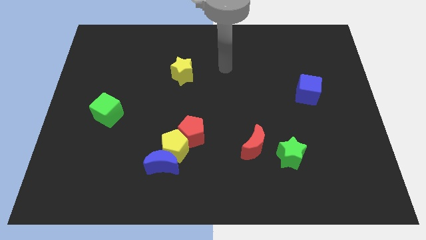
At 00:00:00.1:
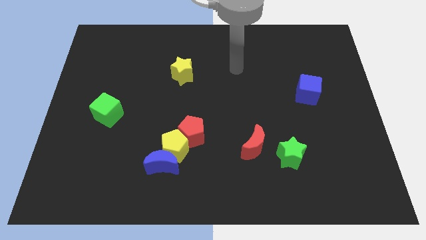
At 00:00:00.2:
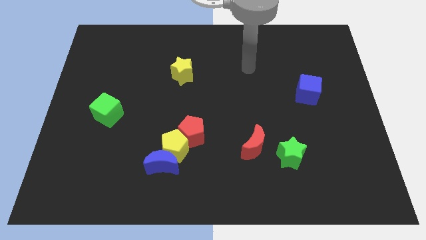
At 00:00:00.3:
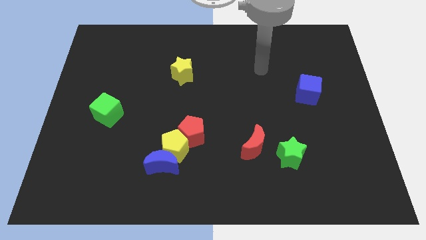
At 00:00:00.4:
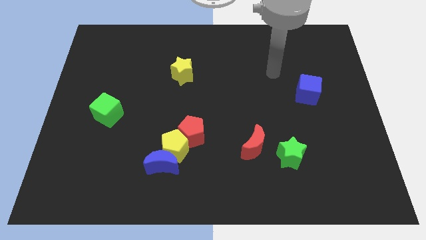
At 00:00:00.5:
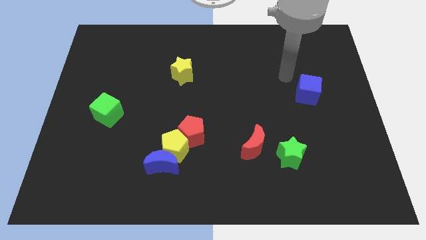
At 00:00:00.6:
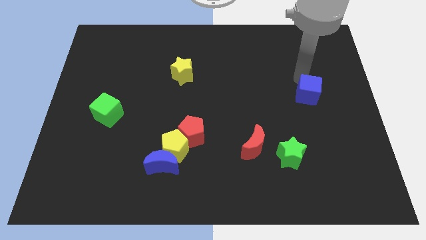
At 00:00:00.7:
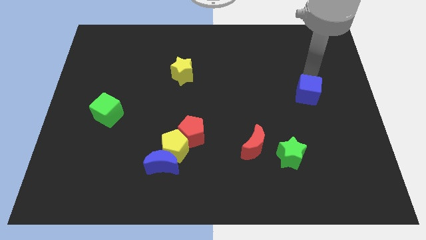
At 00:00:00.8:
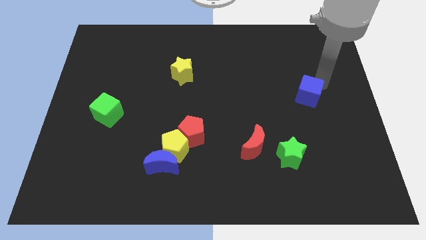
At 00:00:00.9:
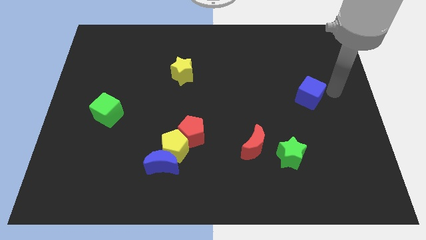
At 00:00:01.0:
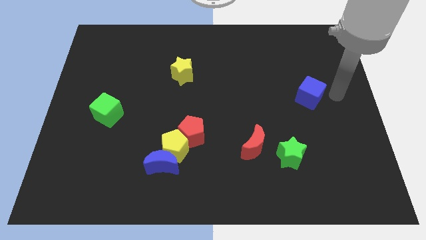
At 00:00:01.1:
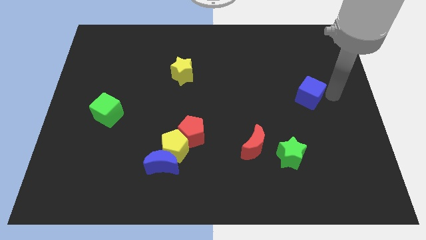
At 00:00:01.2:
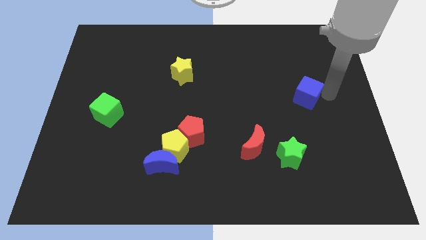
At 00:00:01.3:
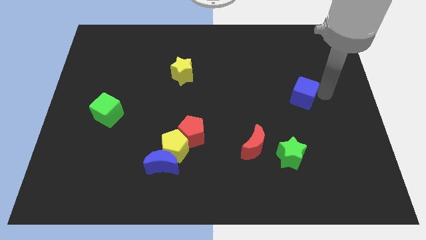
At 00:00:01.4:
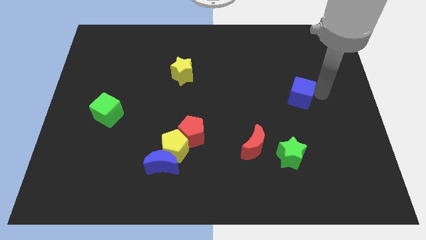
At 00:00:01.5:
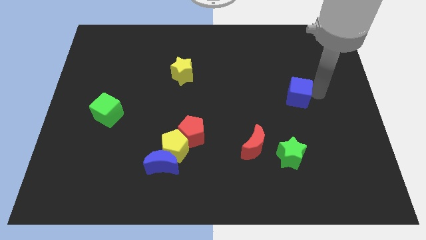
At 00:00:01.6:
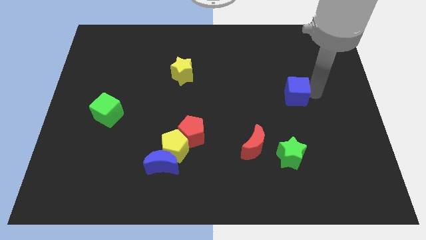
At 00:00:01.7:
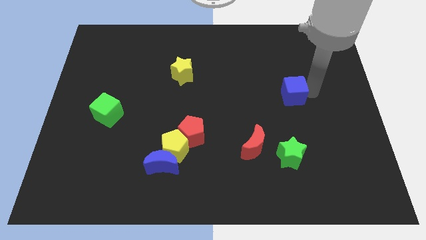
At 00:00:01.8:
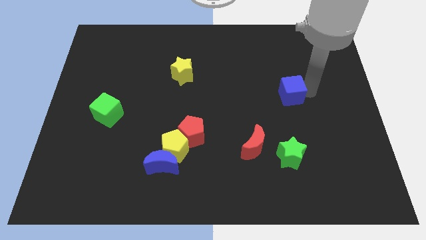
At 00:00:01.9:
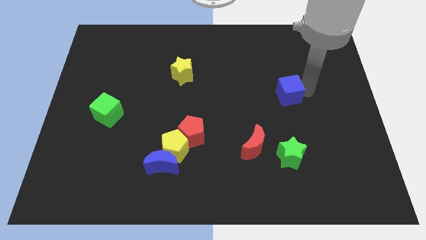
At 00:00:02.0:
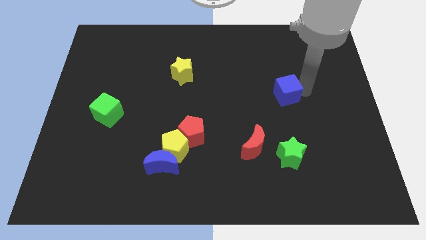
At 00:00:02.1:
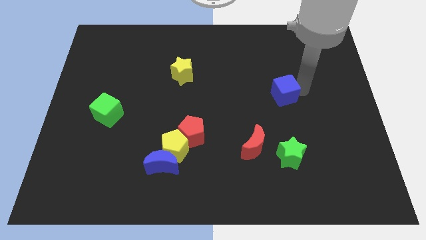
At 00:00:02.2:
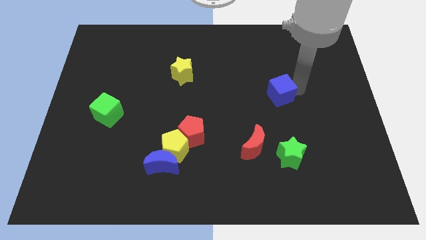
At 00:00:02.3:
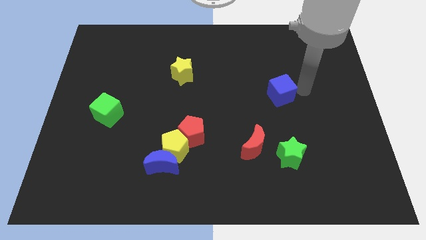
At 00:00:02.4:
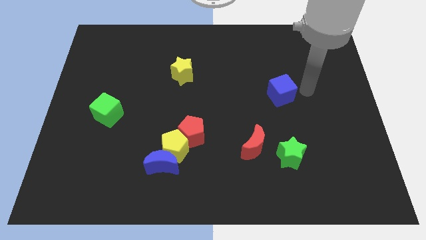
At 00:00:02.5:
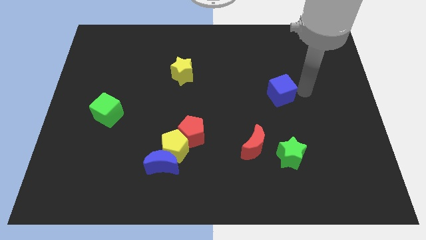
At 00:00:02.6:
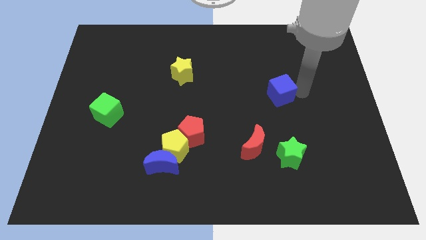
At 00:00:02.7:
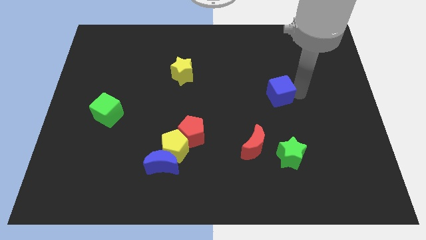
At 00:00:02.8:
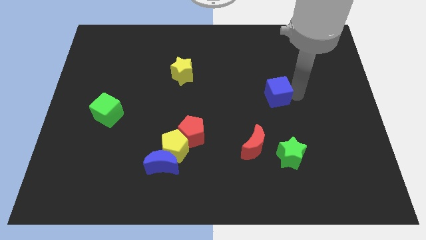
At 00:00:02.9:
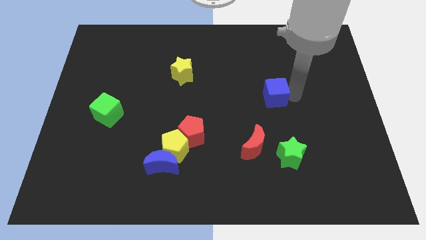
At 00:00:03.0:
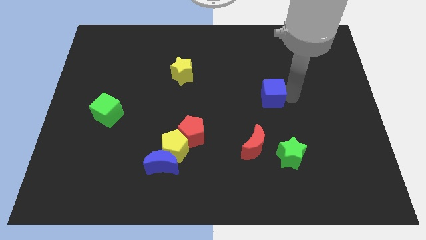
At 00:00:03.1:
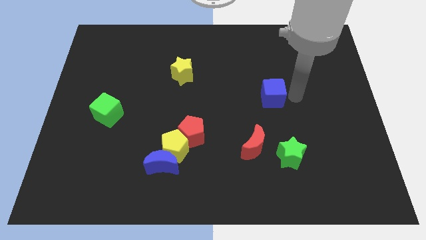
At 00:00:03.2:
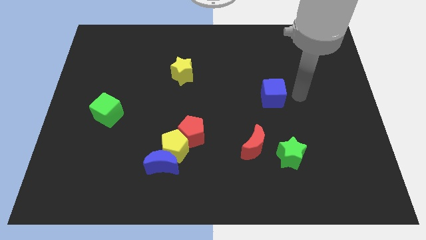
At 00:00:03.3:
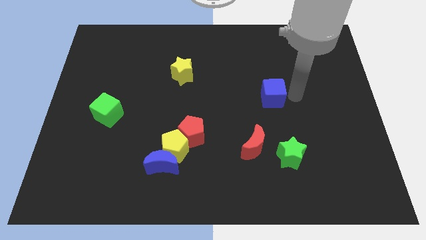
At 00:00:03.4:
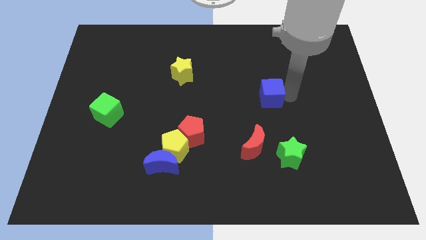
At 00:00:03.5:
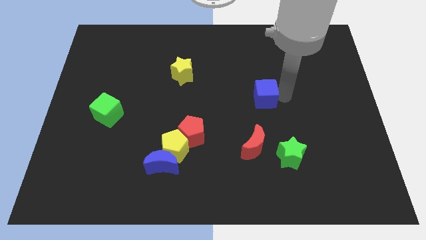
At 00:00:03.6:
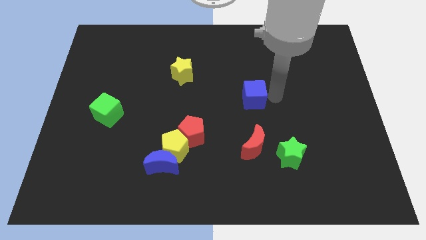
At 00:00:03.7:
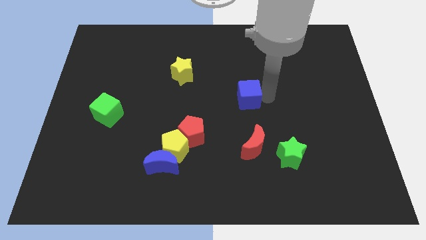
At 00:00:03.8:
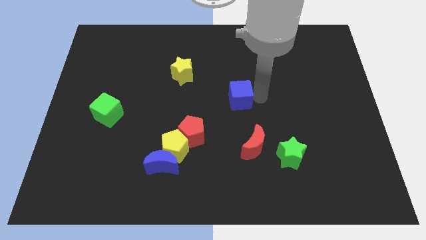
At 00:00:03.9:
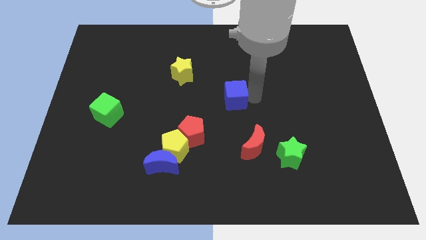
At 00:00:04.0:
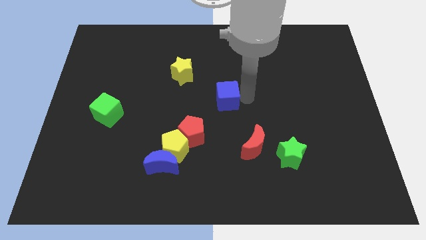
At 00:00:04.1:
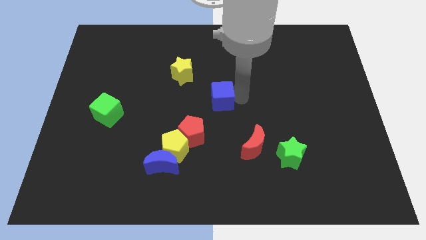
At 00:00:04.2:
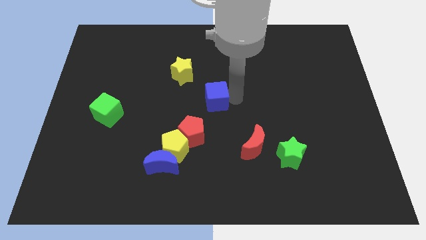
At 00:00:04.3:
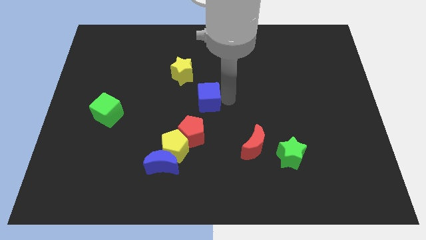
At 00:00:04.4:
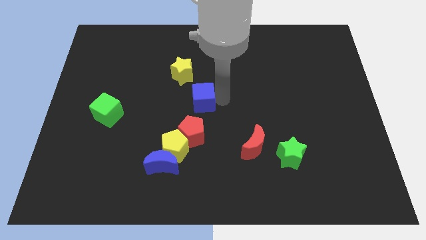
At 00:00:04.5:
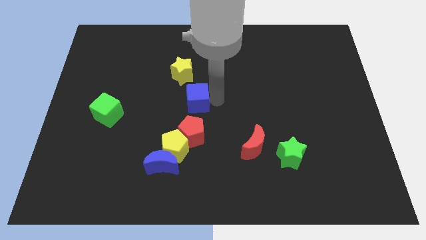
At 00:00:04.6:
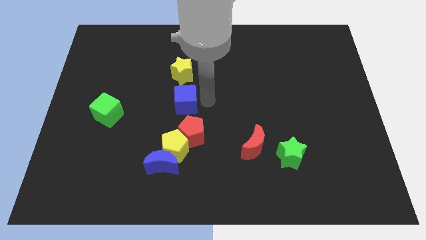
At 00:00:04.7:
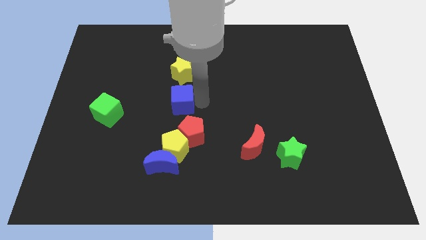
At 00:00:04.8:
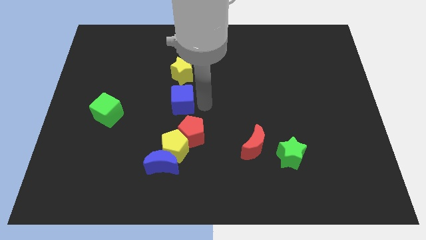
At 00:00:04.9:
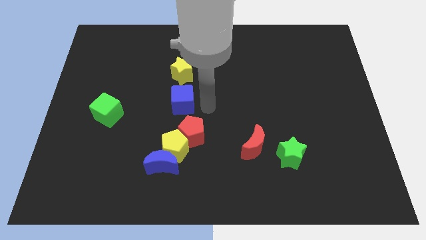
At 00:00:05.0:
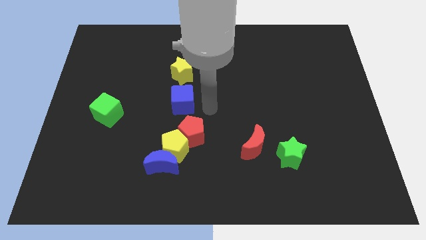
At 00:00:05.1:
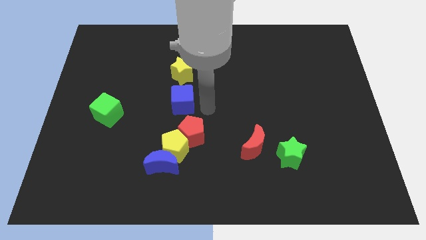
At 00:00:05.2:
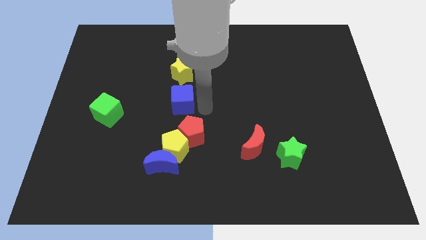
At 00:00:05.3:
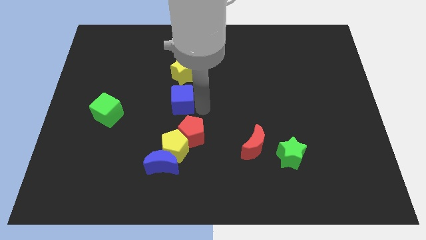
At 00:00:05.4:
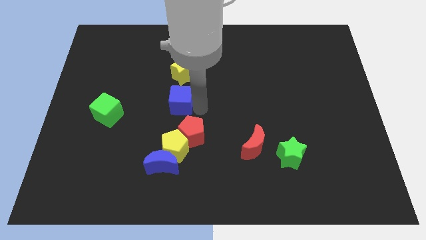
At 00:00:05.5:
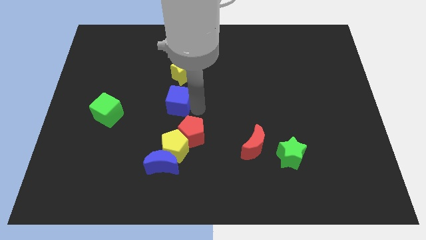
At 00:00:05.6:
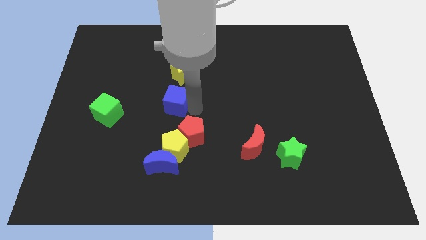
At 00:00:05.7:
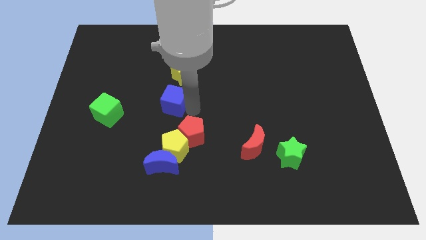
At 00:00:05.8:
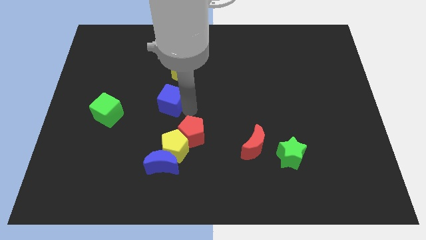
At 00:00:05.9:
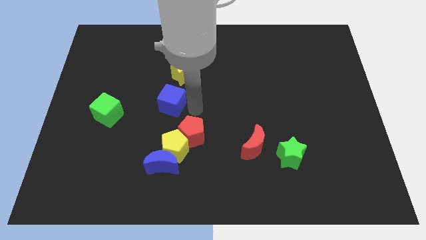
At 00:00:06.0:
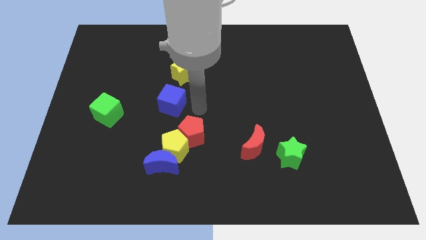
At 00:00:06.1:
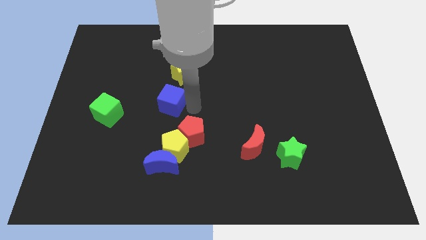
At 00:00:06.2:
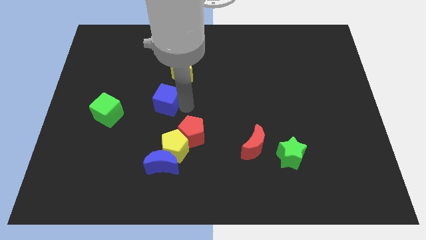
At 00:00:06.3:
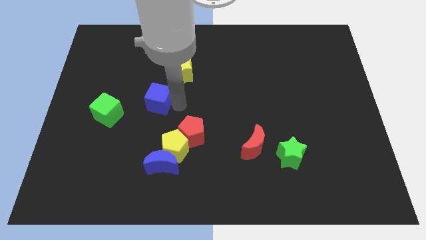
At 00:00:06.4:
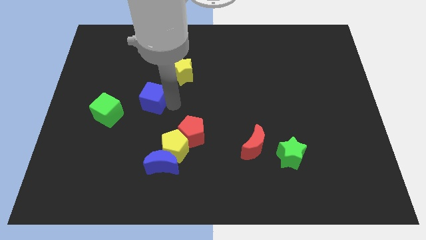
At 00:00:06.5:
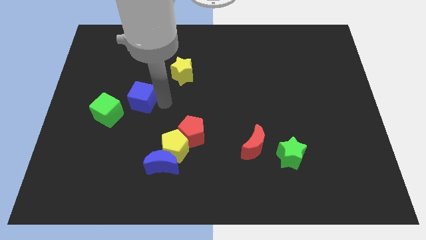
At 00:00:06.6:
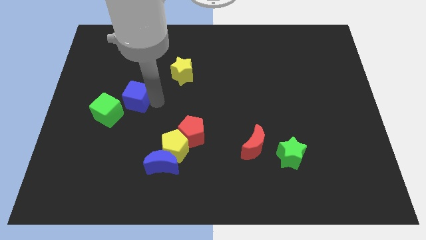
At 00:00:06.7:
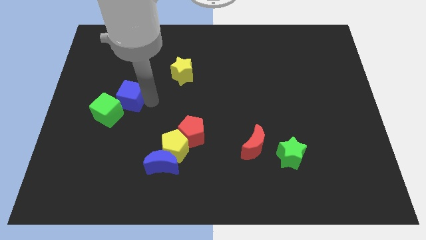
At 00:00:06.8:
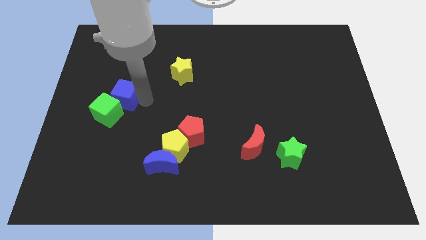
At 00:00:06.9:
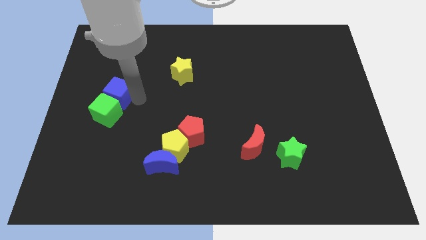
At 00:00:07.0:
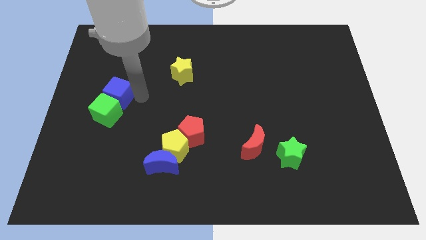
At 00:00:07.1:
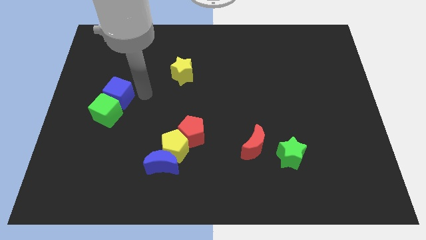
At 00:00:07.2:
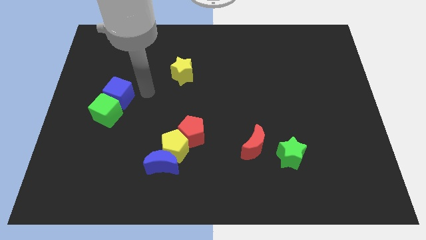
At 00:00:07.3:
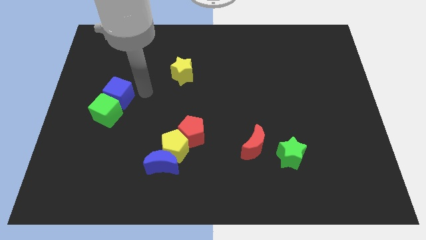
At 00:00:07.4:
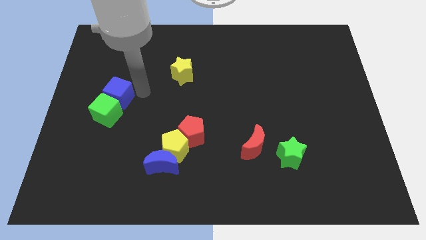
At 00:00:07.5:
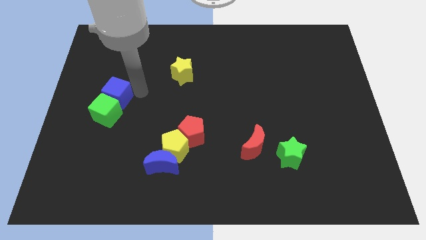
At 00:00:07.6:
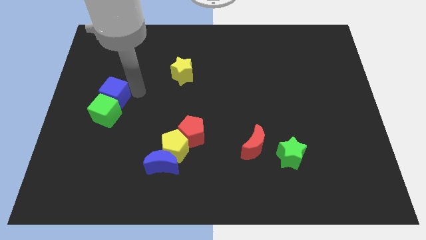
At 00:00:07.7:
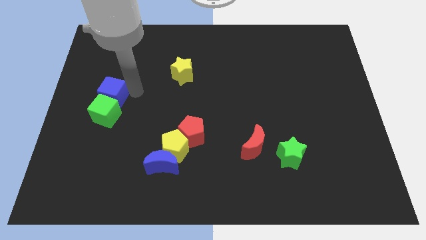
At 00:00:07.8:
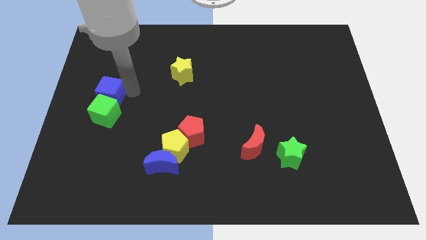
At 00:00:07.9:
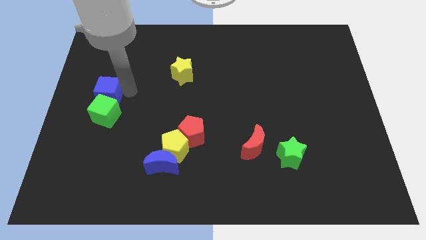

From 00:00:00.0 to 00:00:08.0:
push the blue cube to the left side of the board
